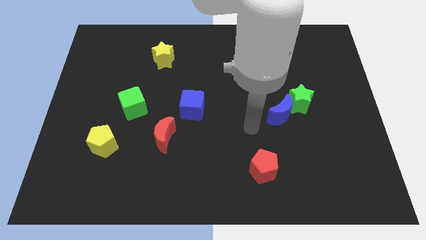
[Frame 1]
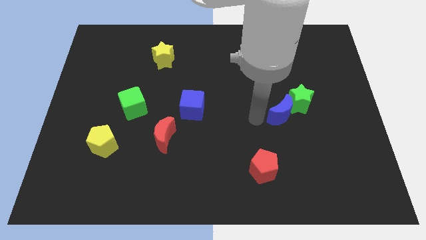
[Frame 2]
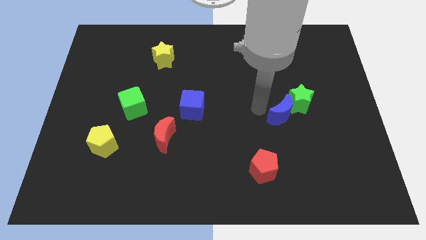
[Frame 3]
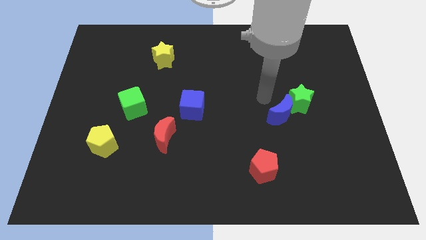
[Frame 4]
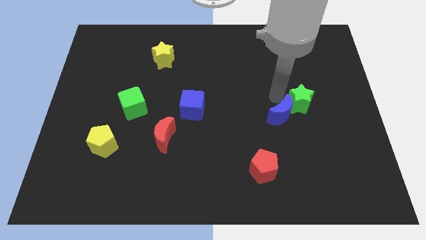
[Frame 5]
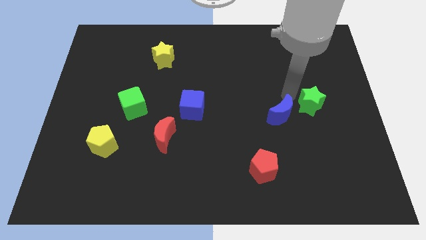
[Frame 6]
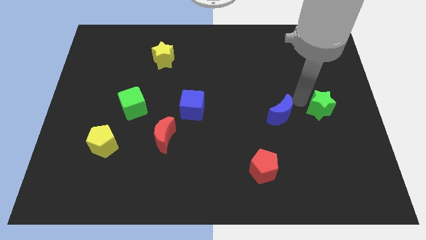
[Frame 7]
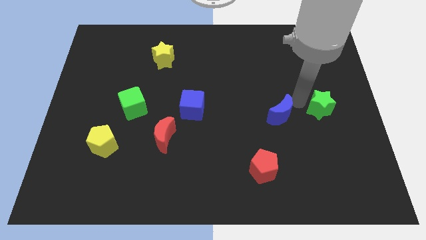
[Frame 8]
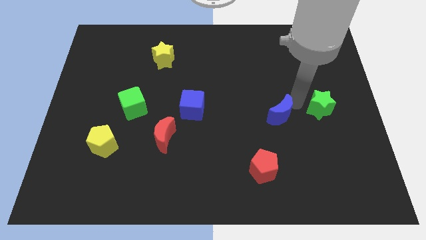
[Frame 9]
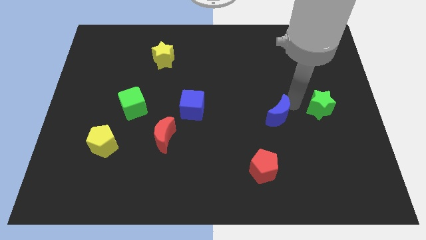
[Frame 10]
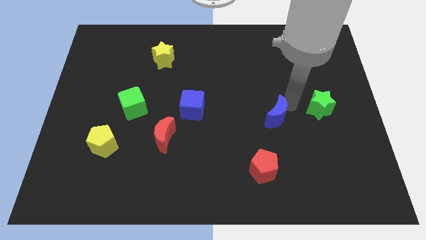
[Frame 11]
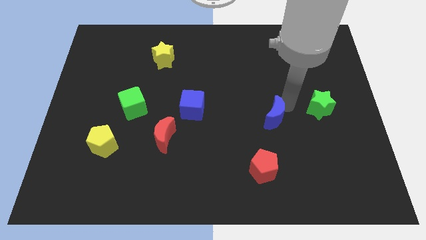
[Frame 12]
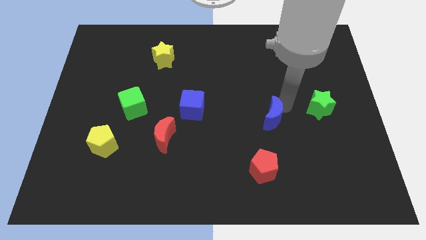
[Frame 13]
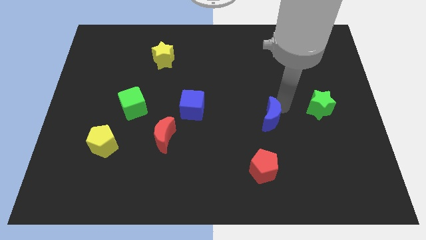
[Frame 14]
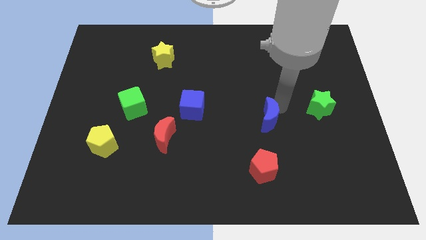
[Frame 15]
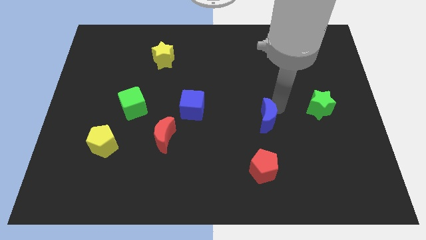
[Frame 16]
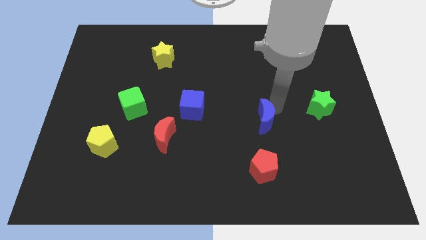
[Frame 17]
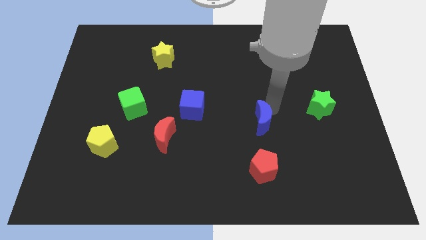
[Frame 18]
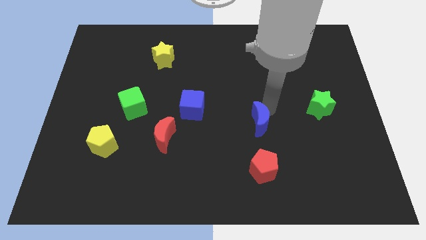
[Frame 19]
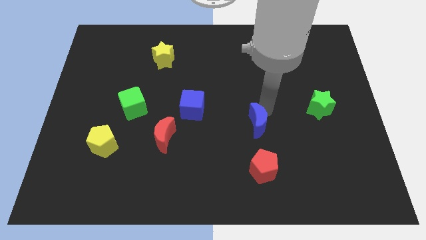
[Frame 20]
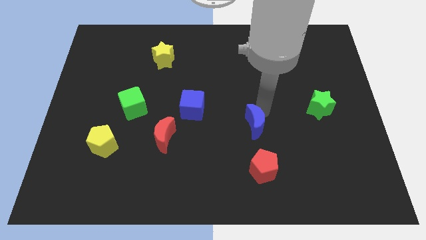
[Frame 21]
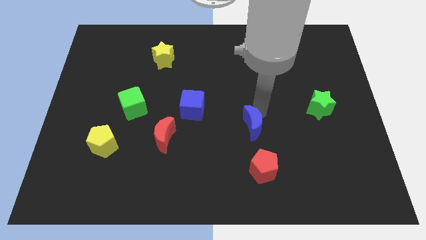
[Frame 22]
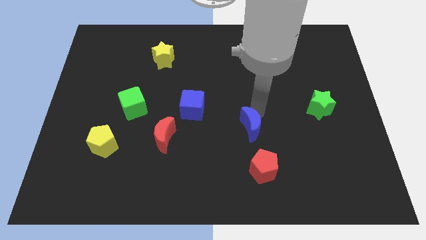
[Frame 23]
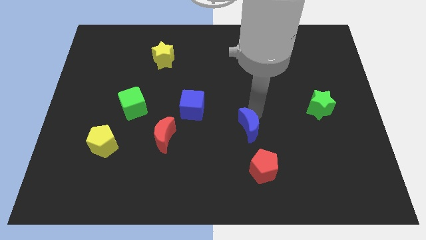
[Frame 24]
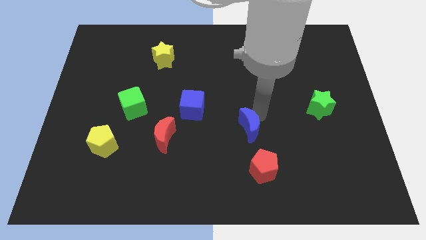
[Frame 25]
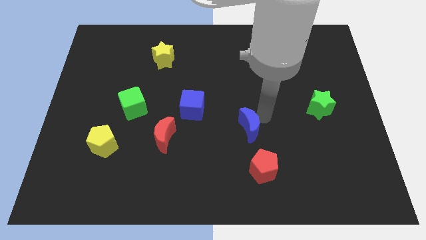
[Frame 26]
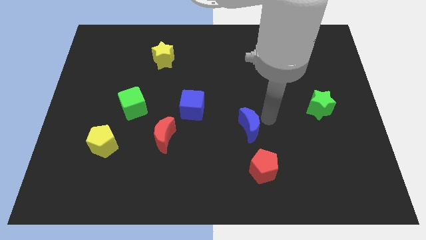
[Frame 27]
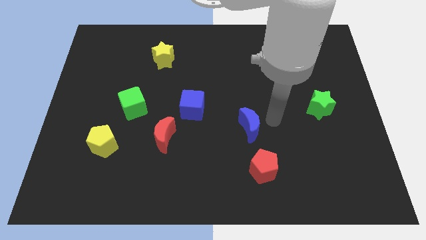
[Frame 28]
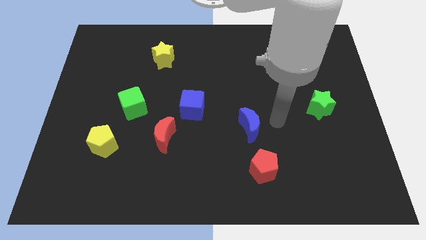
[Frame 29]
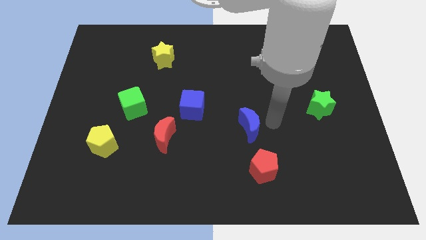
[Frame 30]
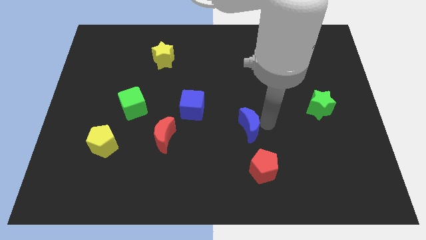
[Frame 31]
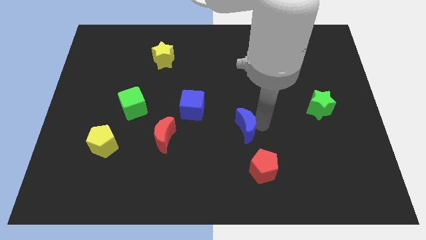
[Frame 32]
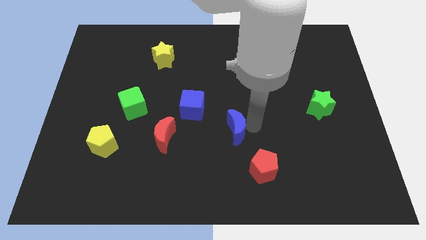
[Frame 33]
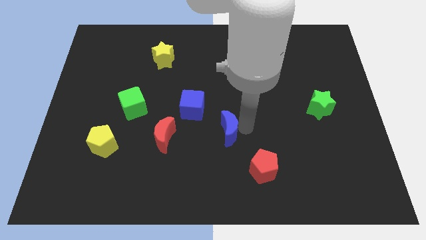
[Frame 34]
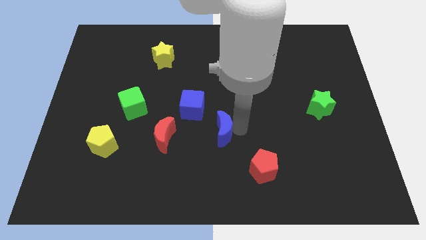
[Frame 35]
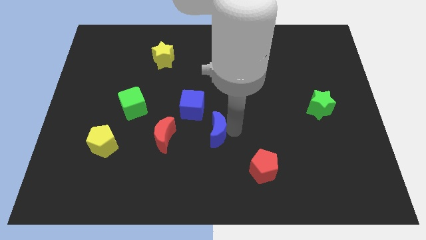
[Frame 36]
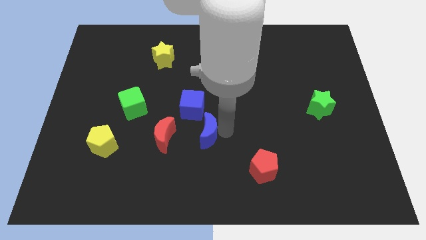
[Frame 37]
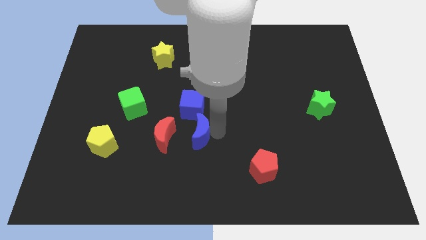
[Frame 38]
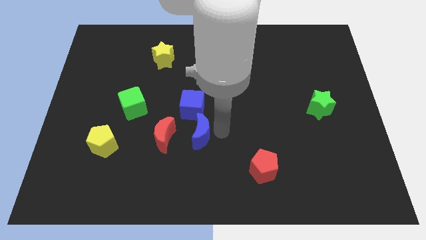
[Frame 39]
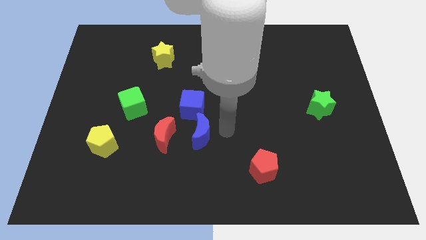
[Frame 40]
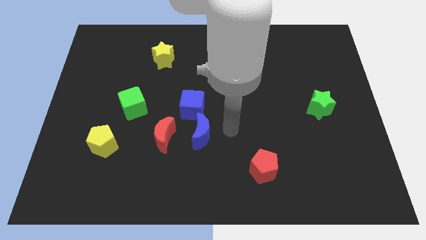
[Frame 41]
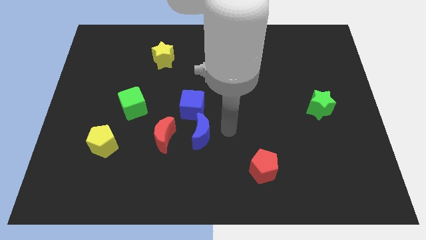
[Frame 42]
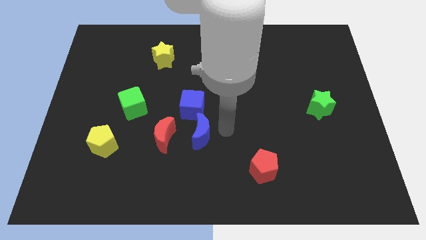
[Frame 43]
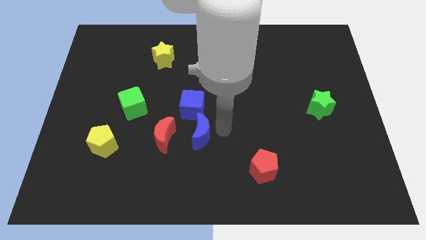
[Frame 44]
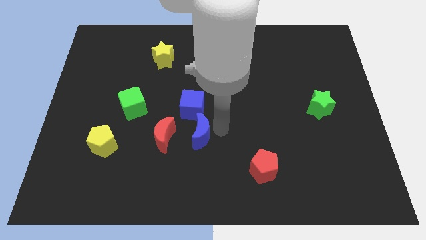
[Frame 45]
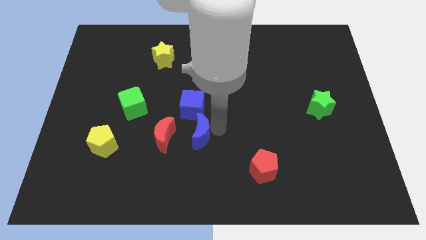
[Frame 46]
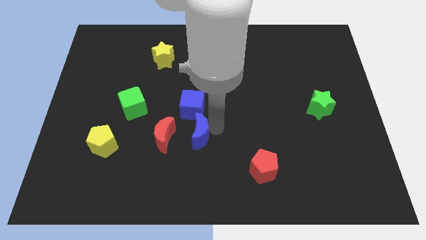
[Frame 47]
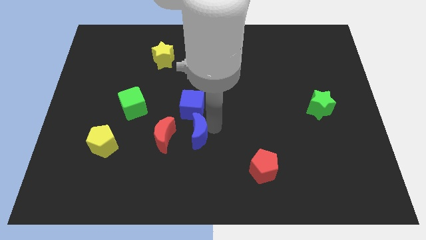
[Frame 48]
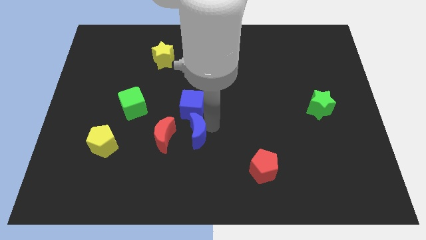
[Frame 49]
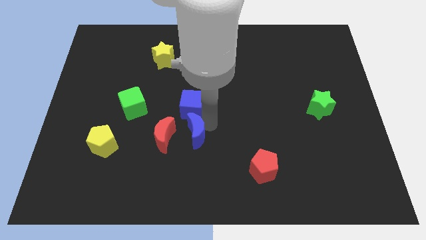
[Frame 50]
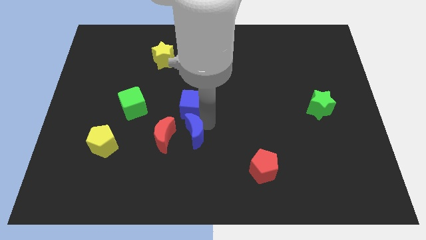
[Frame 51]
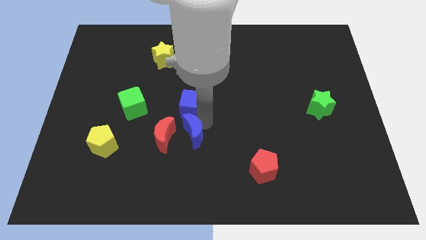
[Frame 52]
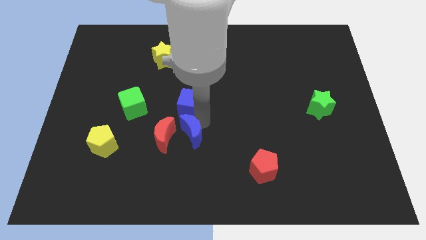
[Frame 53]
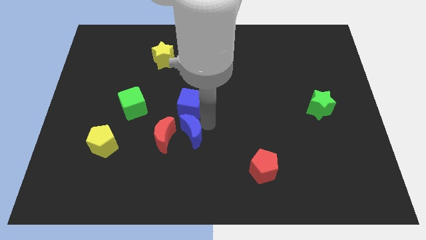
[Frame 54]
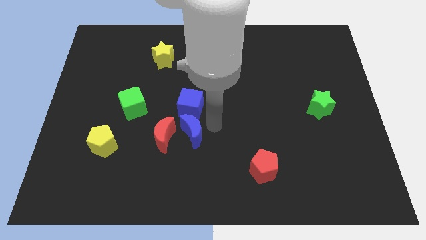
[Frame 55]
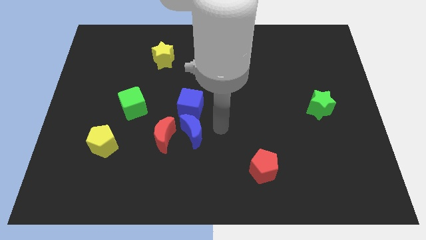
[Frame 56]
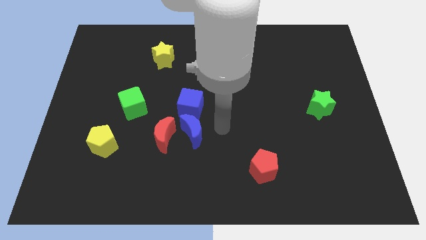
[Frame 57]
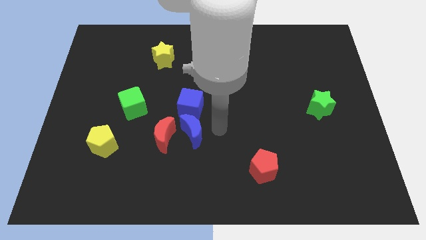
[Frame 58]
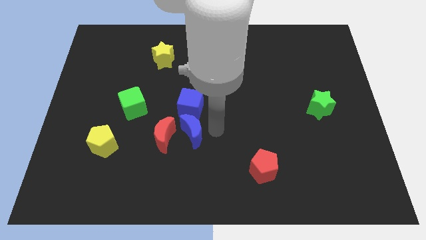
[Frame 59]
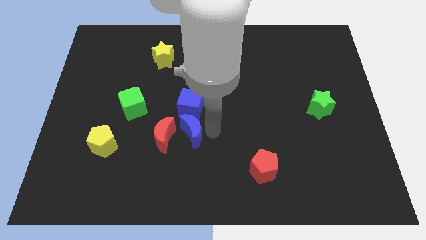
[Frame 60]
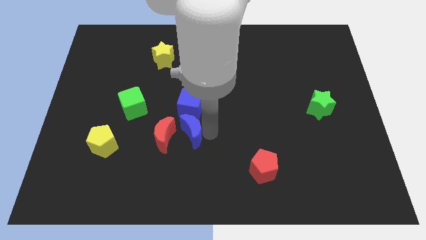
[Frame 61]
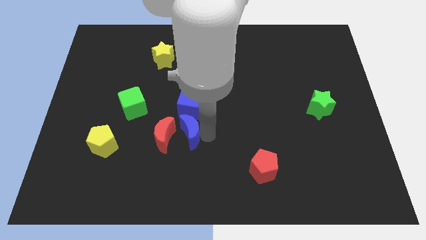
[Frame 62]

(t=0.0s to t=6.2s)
push the blue moon towards the red moon

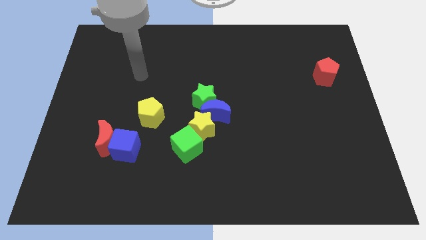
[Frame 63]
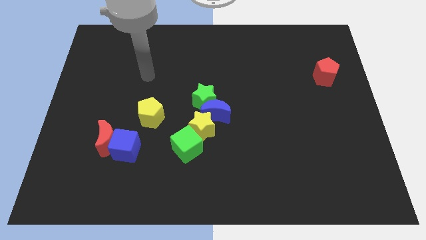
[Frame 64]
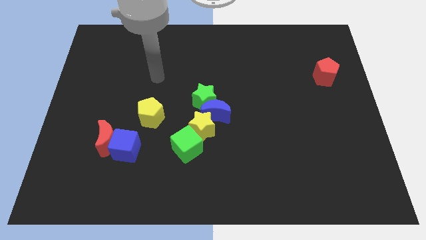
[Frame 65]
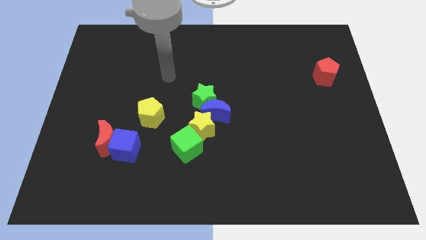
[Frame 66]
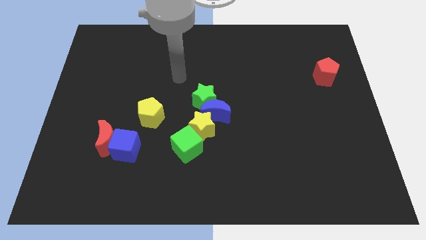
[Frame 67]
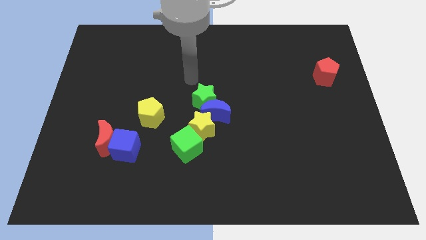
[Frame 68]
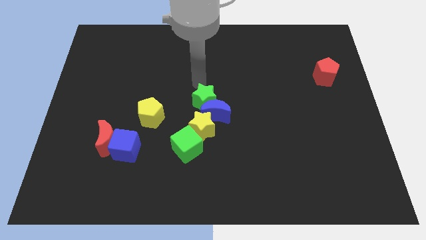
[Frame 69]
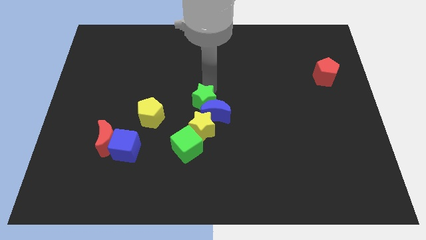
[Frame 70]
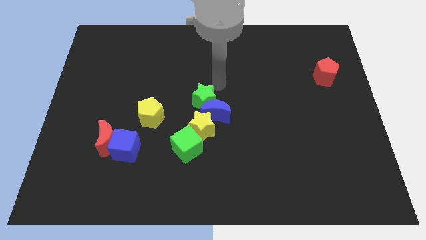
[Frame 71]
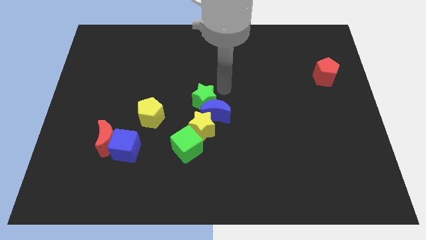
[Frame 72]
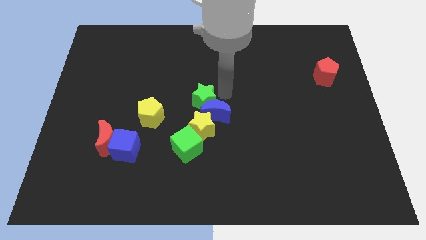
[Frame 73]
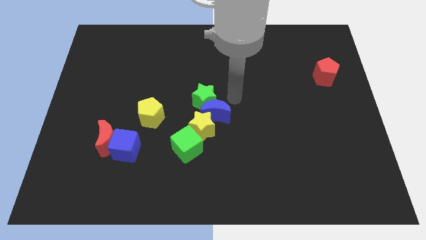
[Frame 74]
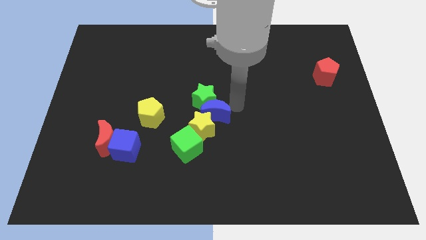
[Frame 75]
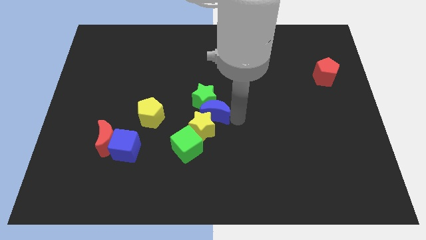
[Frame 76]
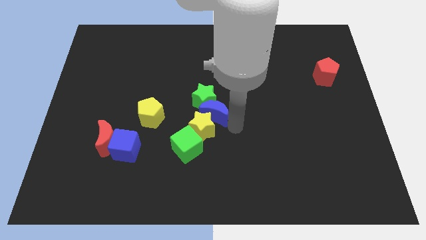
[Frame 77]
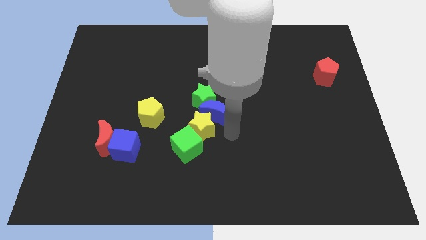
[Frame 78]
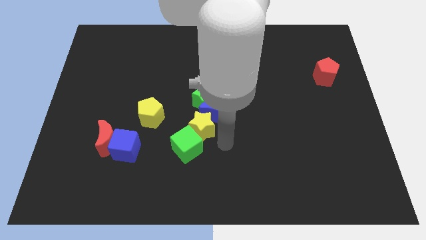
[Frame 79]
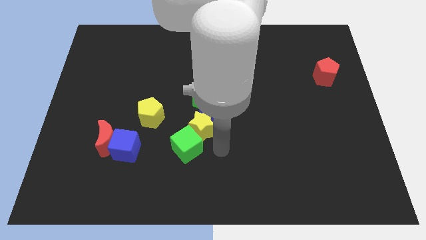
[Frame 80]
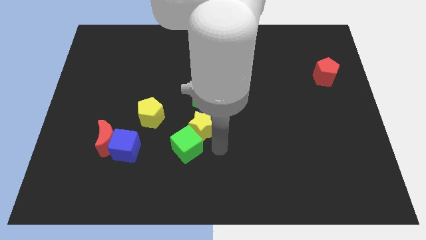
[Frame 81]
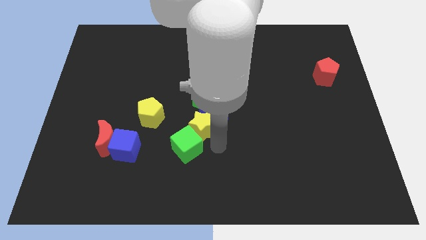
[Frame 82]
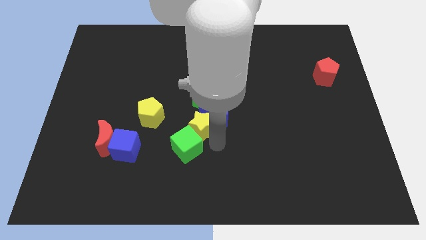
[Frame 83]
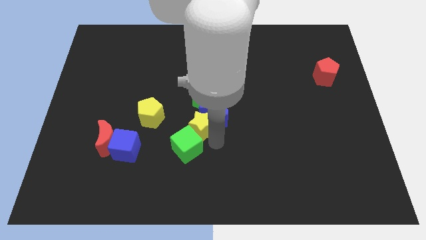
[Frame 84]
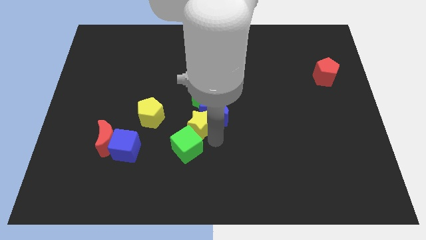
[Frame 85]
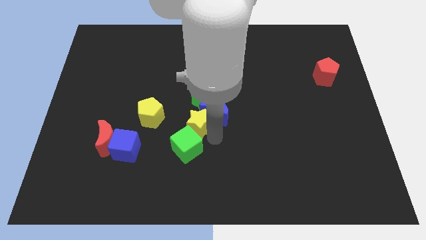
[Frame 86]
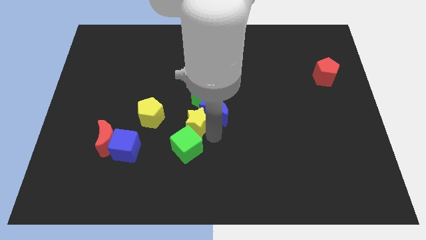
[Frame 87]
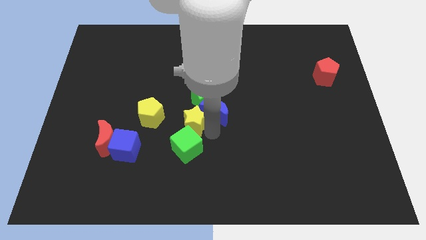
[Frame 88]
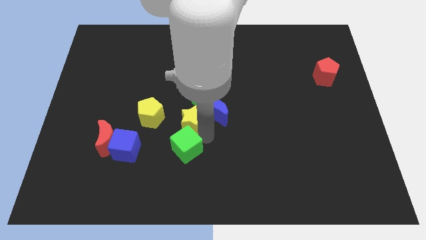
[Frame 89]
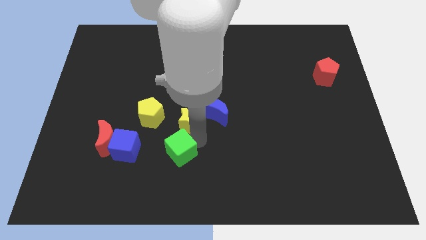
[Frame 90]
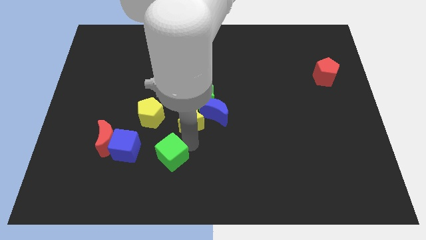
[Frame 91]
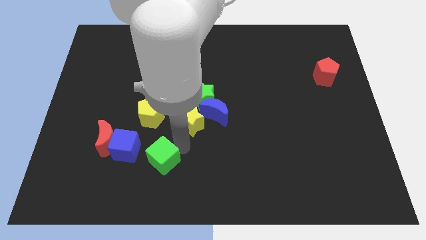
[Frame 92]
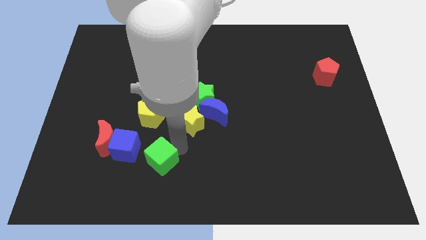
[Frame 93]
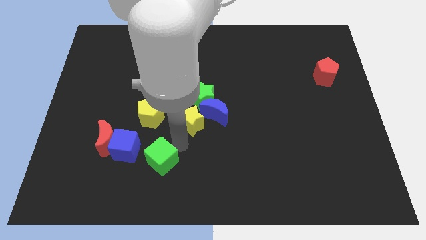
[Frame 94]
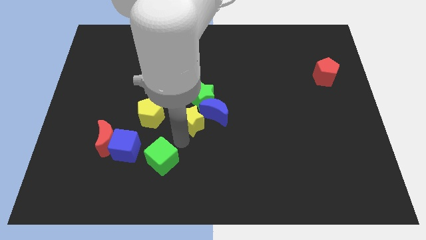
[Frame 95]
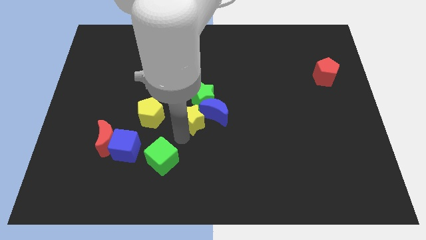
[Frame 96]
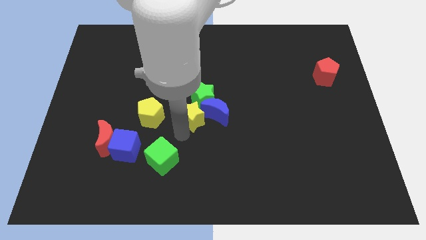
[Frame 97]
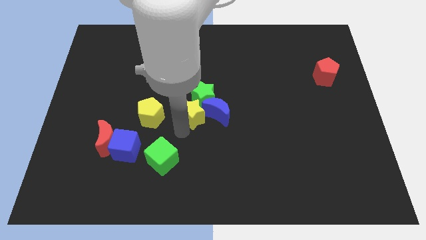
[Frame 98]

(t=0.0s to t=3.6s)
slide the yellow star towards the green star
